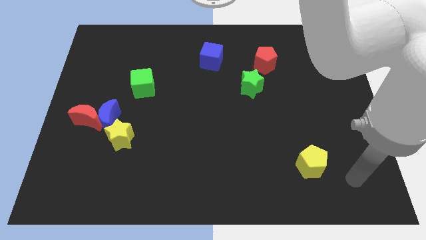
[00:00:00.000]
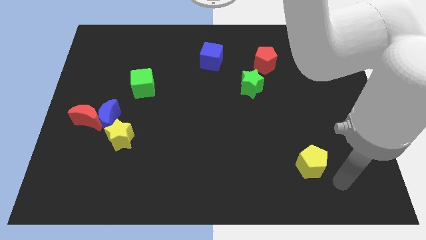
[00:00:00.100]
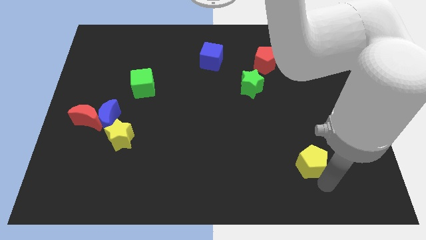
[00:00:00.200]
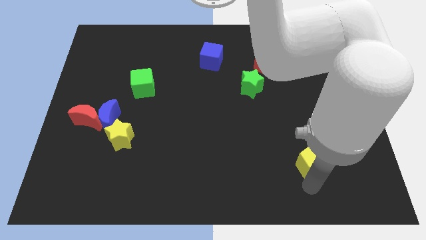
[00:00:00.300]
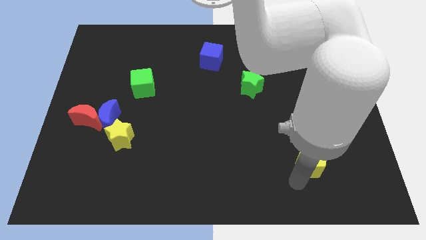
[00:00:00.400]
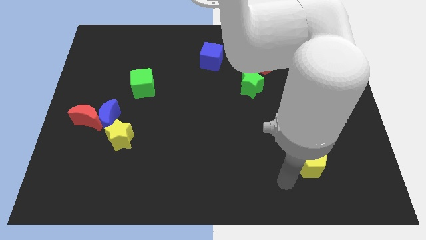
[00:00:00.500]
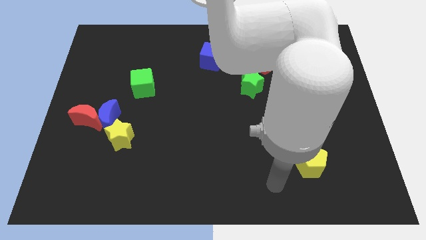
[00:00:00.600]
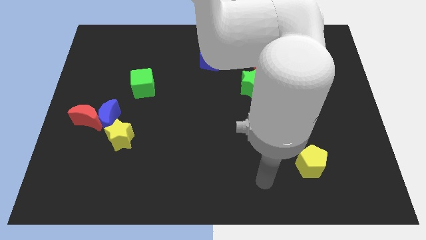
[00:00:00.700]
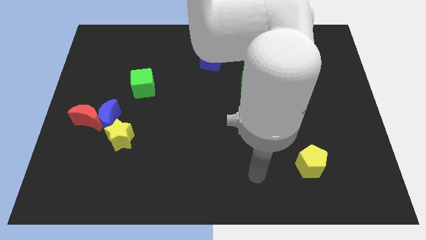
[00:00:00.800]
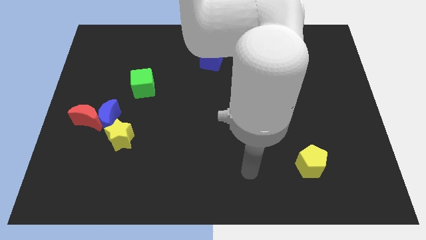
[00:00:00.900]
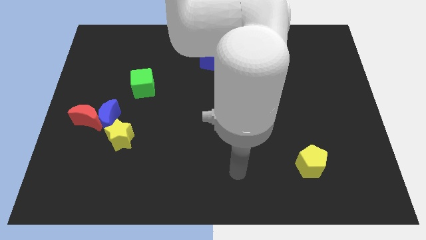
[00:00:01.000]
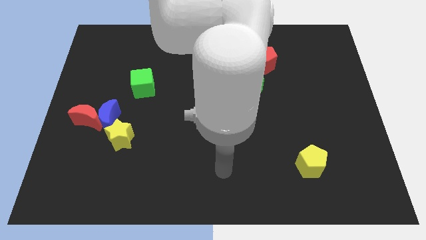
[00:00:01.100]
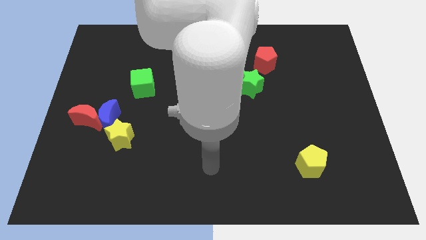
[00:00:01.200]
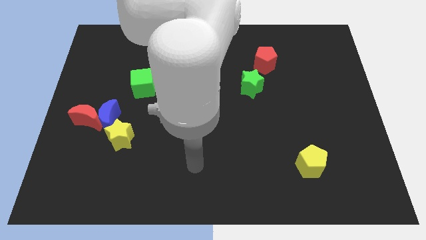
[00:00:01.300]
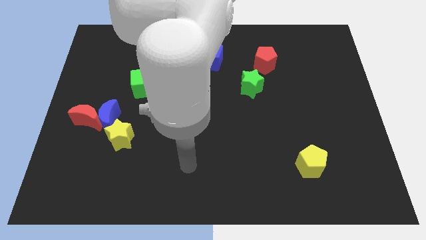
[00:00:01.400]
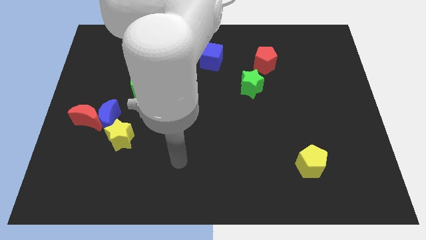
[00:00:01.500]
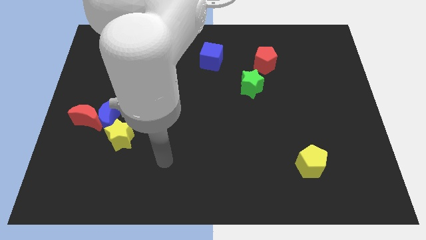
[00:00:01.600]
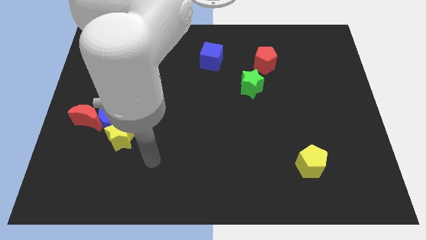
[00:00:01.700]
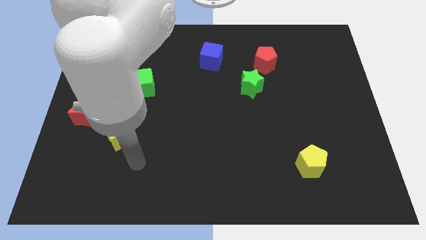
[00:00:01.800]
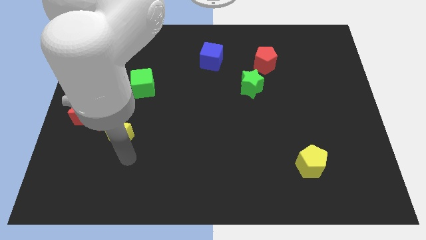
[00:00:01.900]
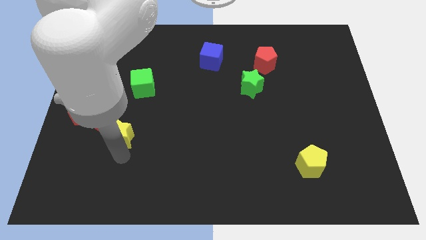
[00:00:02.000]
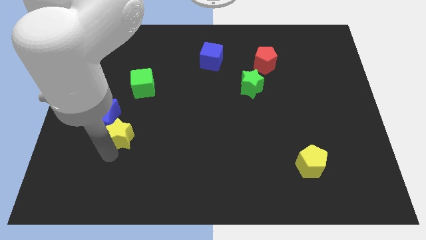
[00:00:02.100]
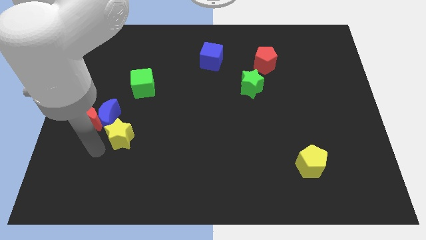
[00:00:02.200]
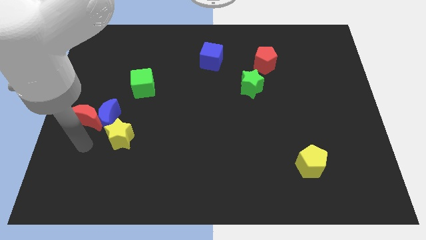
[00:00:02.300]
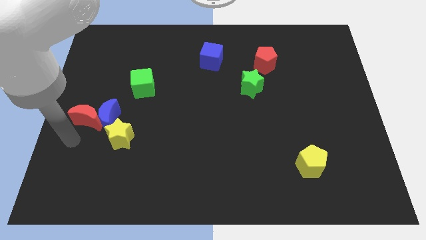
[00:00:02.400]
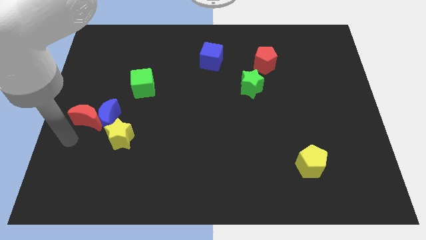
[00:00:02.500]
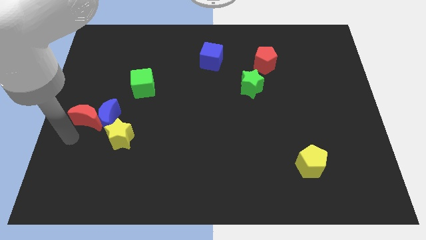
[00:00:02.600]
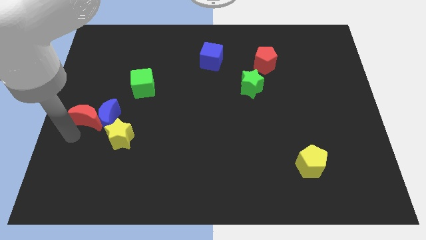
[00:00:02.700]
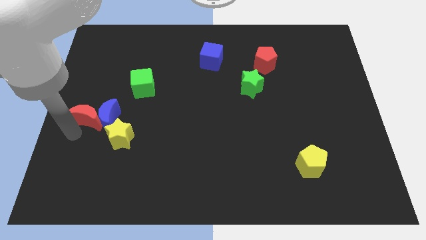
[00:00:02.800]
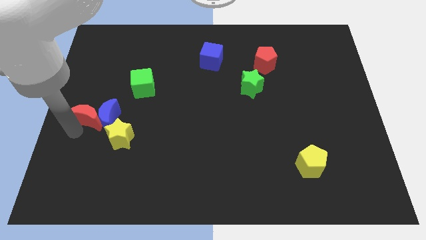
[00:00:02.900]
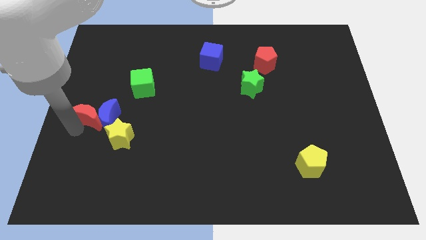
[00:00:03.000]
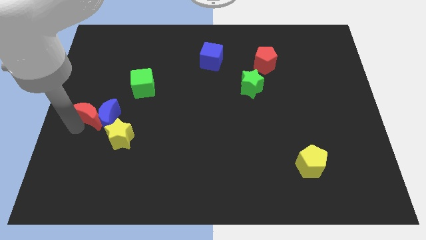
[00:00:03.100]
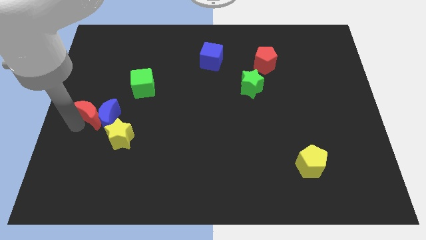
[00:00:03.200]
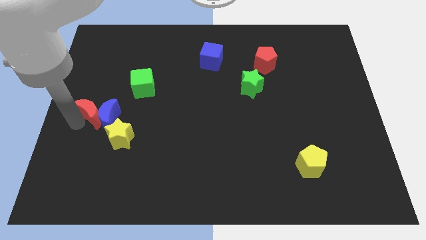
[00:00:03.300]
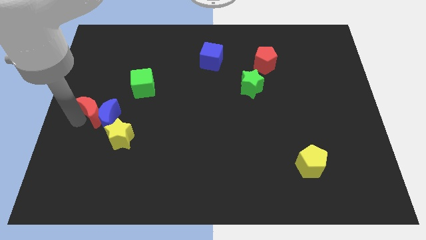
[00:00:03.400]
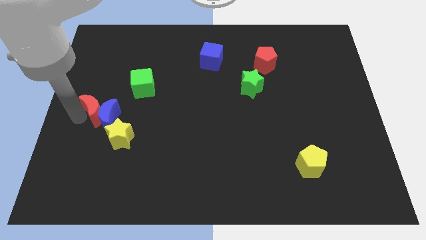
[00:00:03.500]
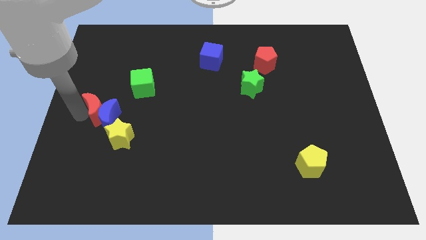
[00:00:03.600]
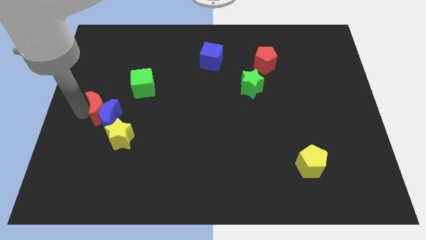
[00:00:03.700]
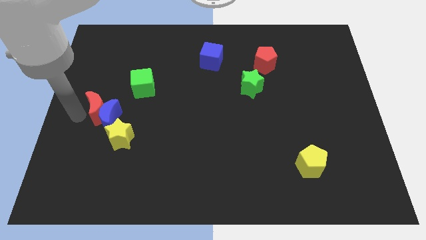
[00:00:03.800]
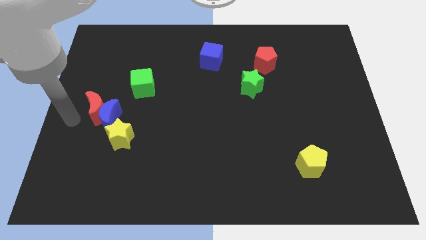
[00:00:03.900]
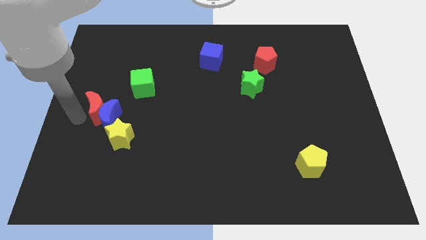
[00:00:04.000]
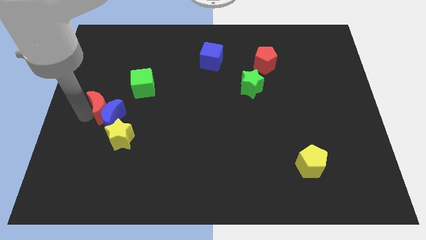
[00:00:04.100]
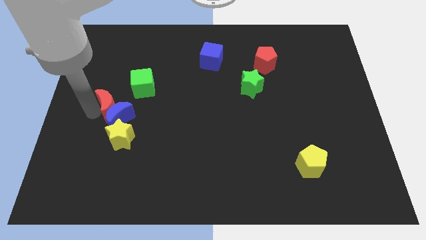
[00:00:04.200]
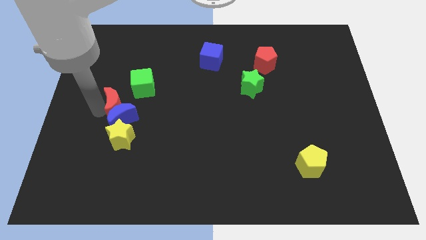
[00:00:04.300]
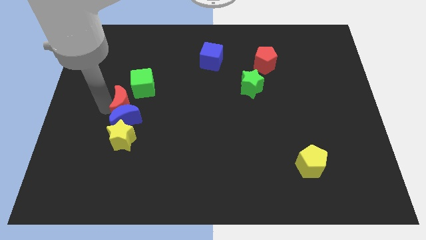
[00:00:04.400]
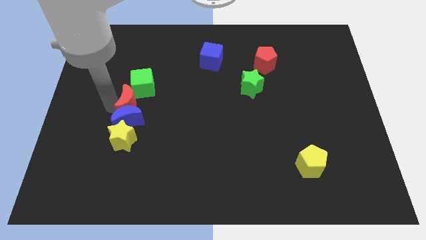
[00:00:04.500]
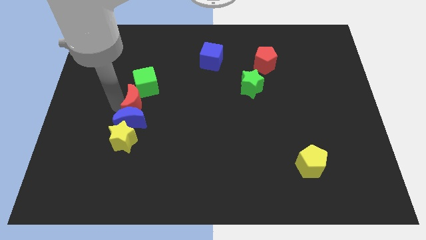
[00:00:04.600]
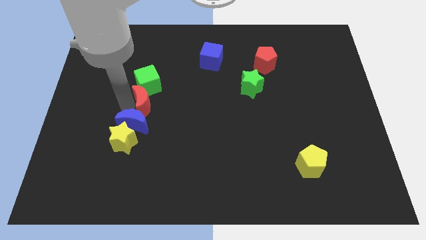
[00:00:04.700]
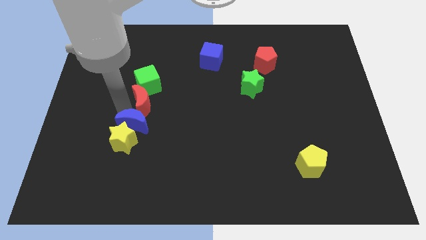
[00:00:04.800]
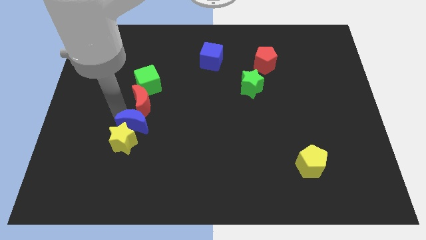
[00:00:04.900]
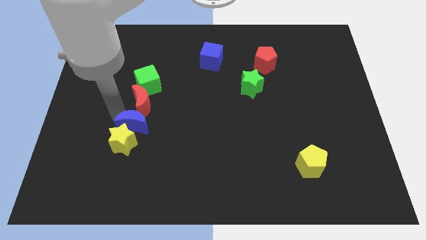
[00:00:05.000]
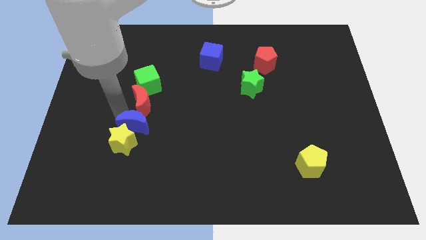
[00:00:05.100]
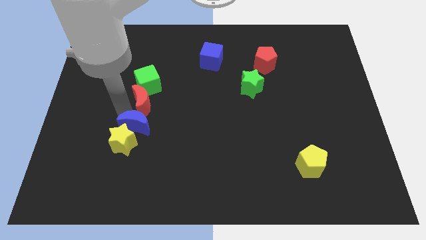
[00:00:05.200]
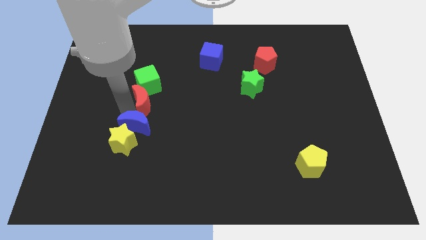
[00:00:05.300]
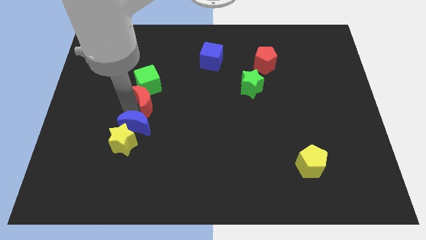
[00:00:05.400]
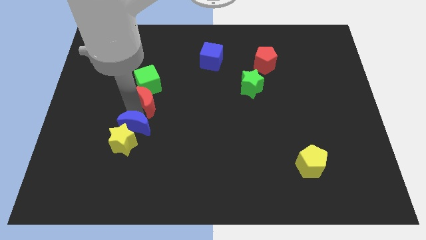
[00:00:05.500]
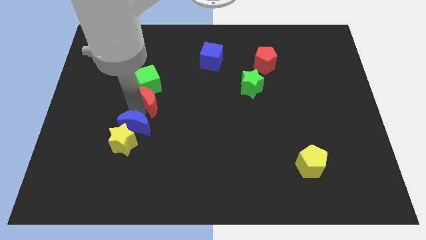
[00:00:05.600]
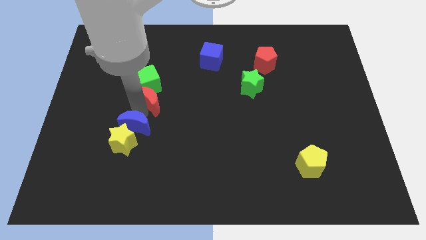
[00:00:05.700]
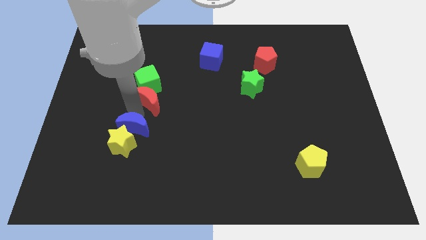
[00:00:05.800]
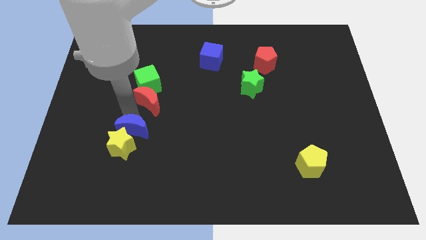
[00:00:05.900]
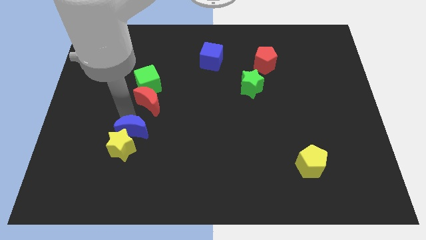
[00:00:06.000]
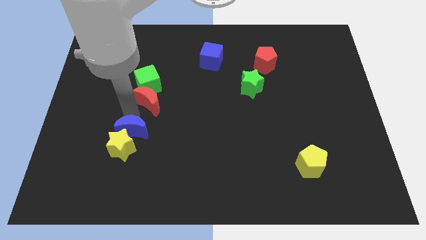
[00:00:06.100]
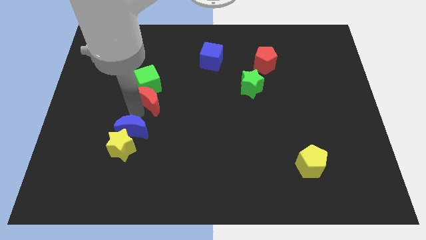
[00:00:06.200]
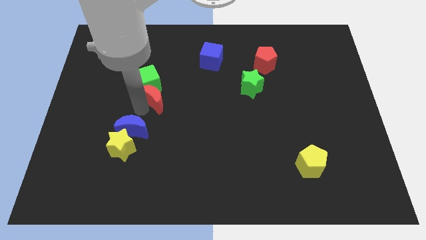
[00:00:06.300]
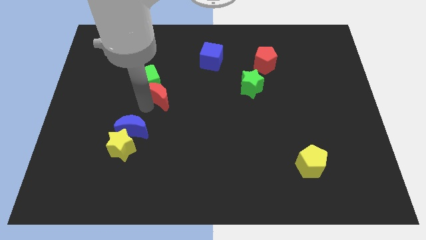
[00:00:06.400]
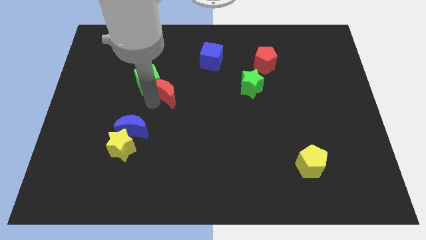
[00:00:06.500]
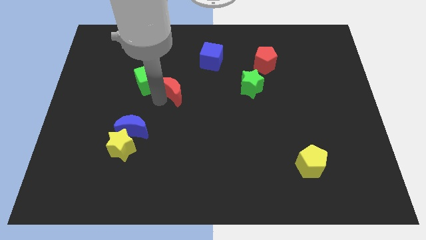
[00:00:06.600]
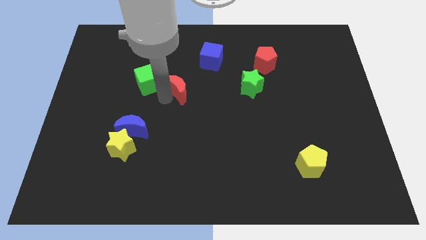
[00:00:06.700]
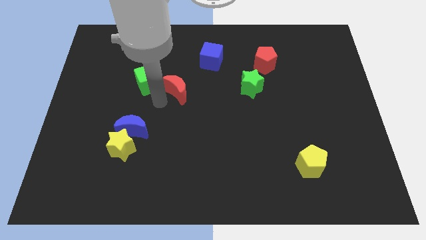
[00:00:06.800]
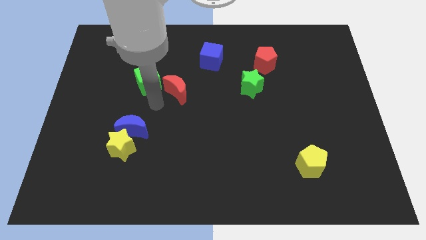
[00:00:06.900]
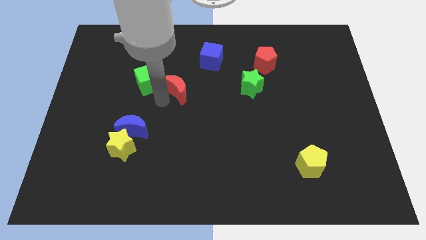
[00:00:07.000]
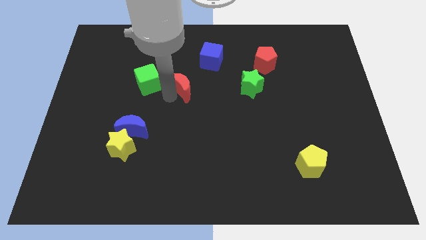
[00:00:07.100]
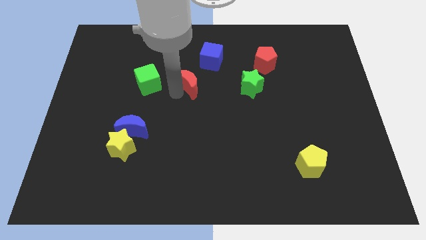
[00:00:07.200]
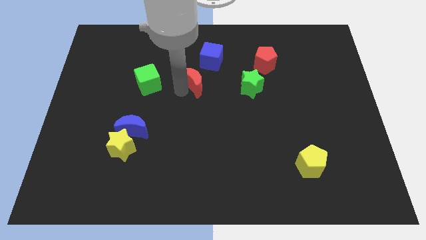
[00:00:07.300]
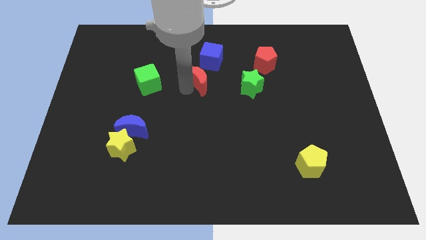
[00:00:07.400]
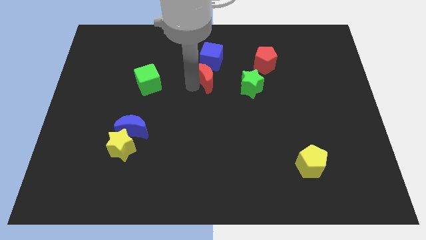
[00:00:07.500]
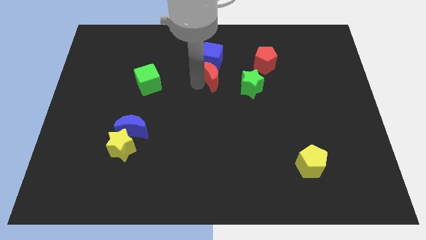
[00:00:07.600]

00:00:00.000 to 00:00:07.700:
move the red moon to the bottom right side of the blue cube
